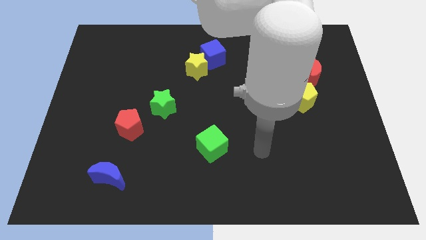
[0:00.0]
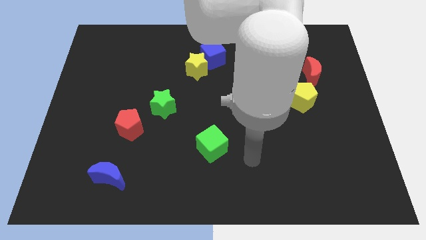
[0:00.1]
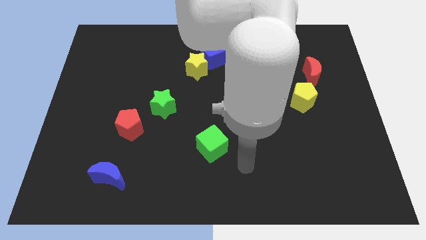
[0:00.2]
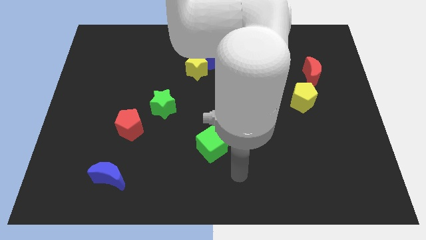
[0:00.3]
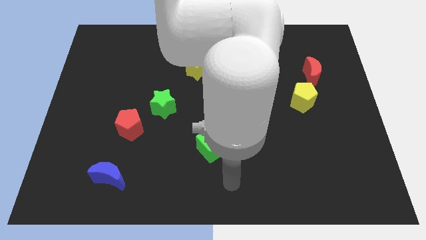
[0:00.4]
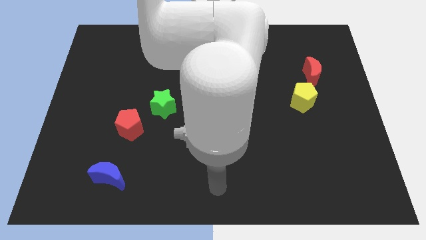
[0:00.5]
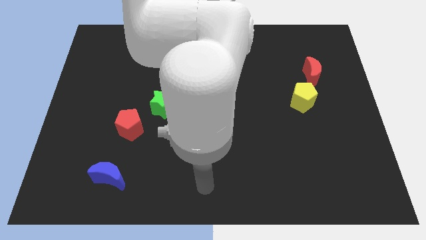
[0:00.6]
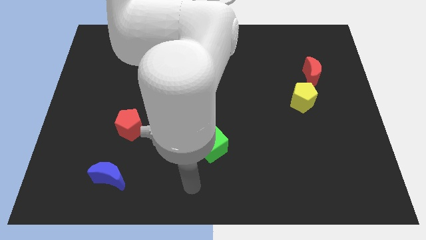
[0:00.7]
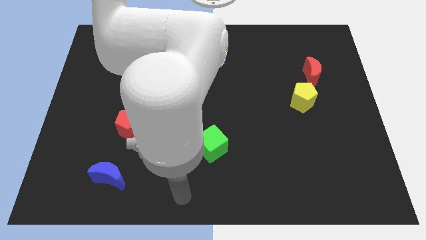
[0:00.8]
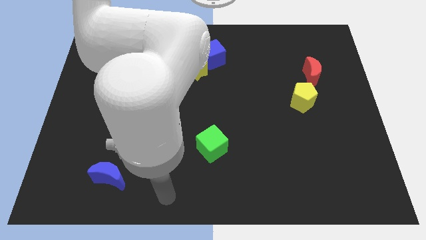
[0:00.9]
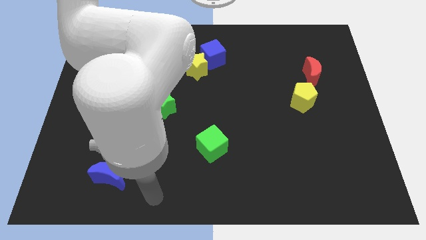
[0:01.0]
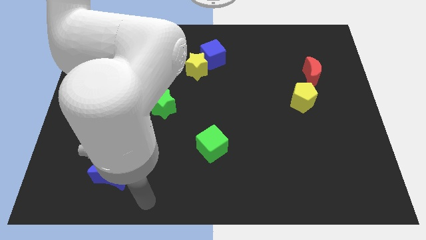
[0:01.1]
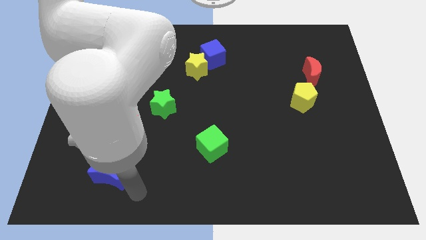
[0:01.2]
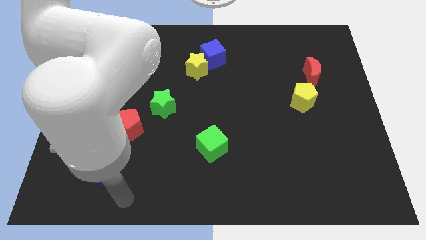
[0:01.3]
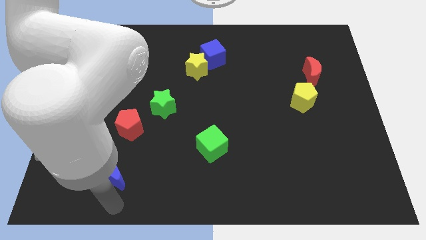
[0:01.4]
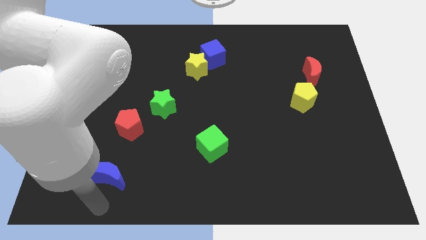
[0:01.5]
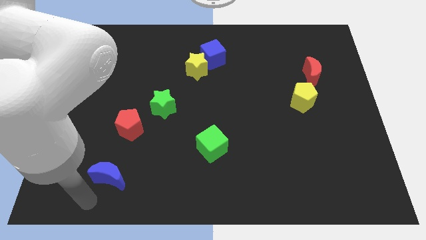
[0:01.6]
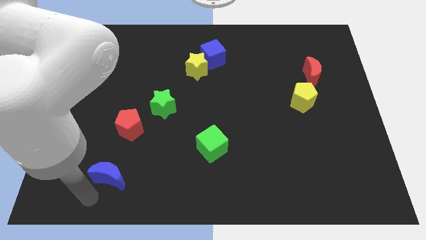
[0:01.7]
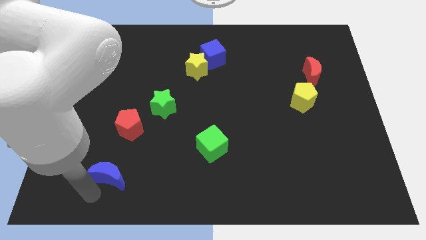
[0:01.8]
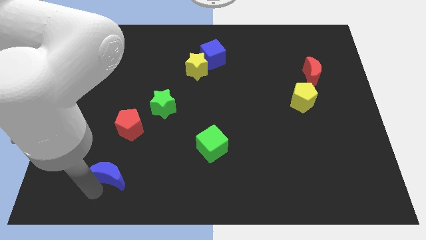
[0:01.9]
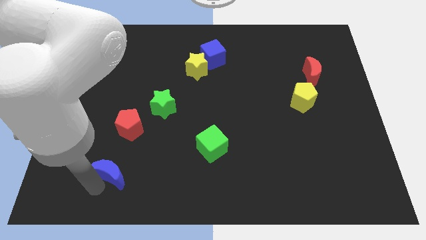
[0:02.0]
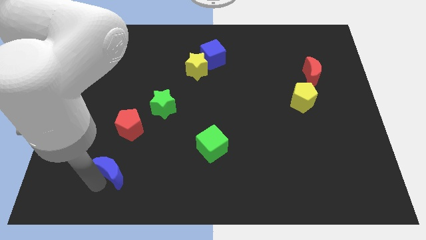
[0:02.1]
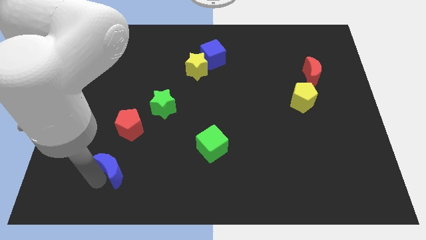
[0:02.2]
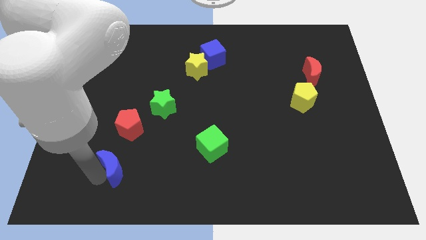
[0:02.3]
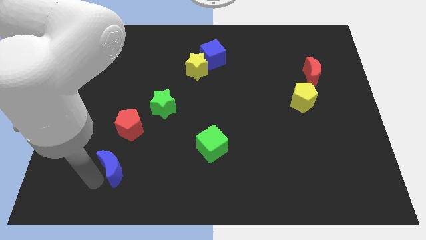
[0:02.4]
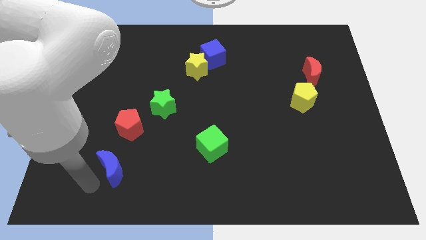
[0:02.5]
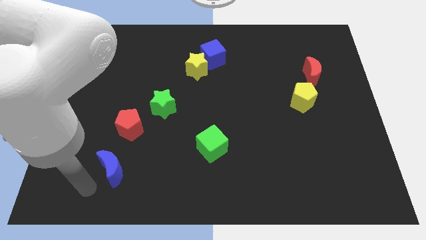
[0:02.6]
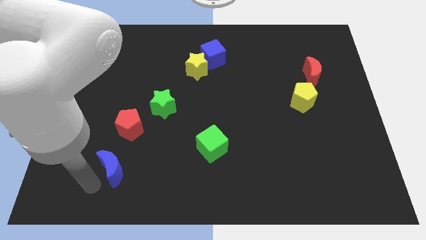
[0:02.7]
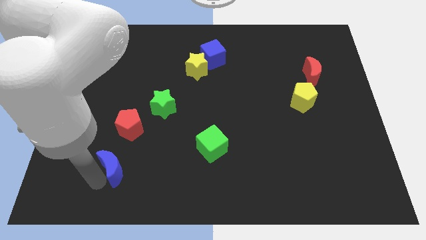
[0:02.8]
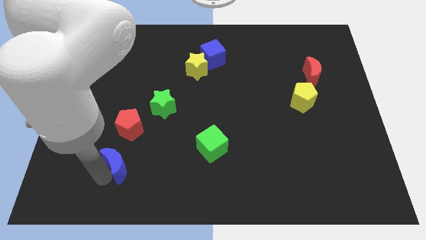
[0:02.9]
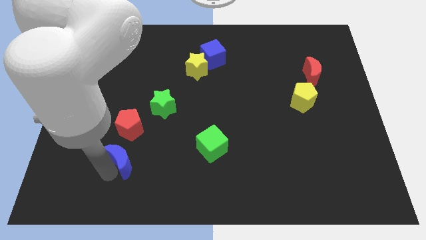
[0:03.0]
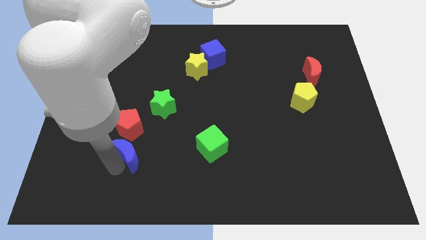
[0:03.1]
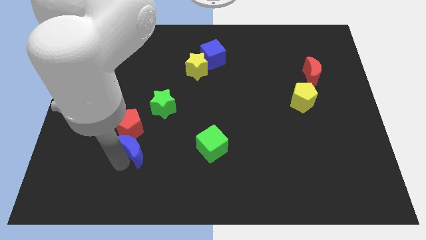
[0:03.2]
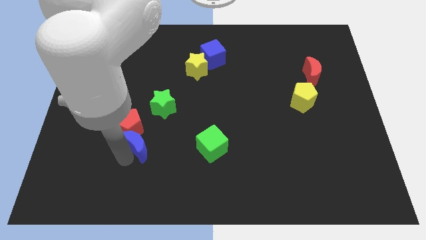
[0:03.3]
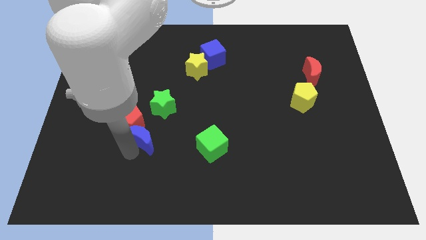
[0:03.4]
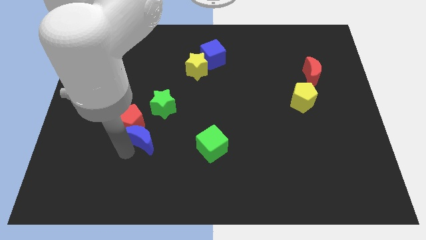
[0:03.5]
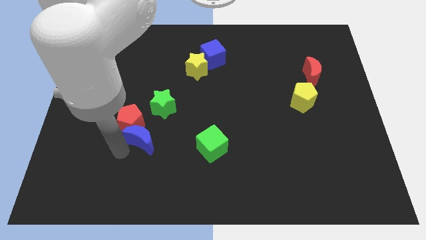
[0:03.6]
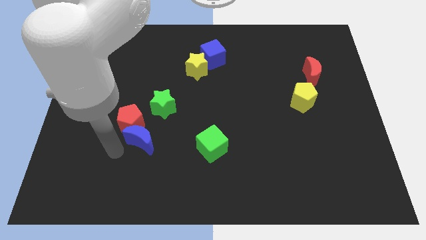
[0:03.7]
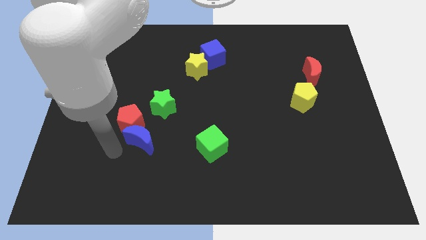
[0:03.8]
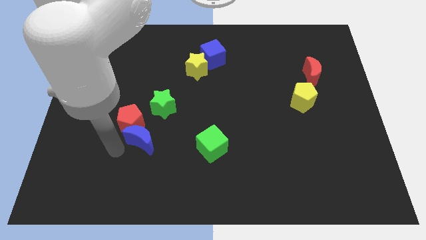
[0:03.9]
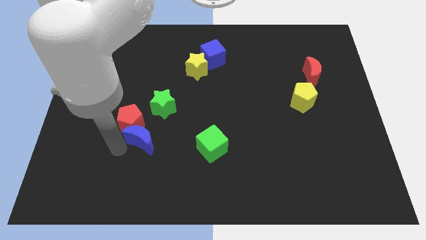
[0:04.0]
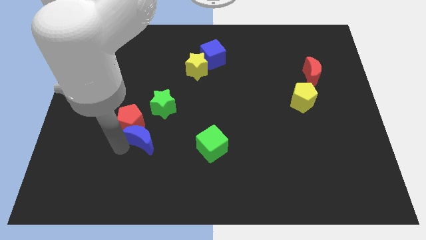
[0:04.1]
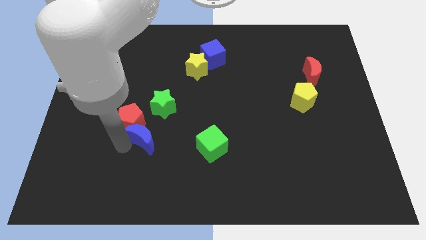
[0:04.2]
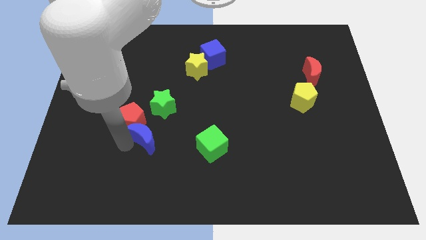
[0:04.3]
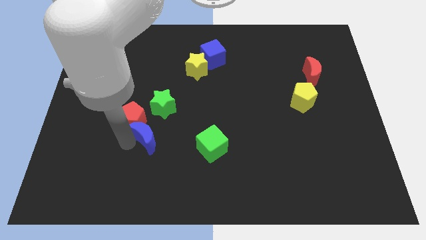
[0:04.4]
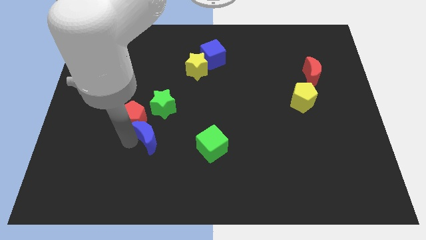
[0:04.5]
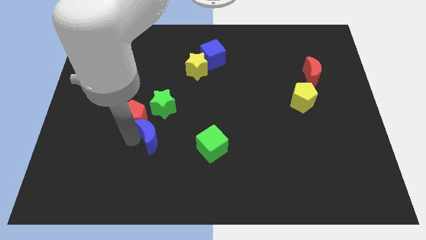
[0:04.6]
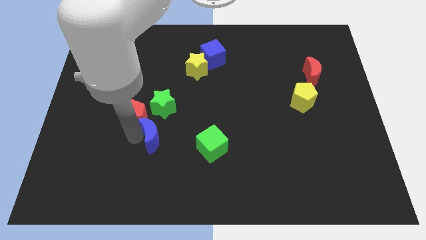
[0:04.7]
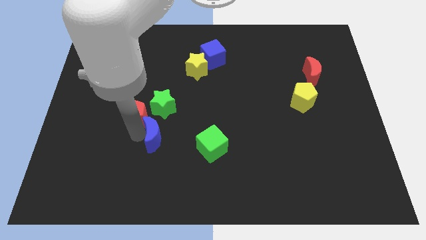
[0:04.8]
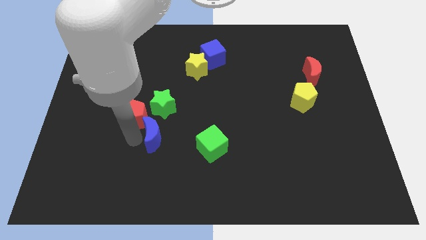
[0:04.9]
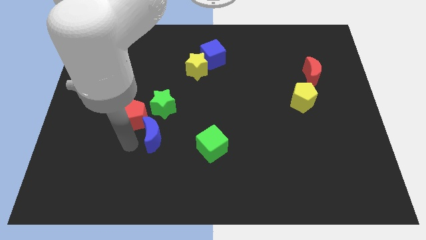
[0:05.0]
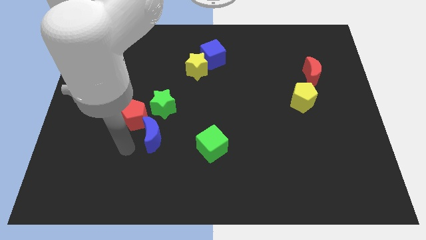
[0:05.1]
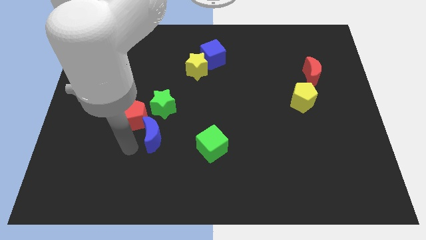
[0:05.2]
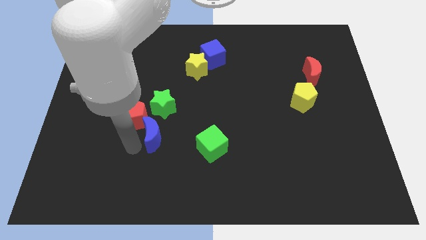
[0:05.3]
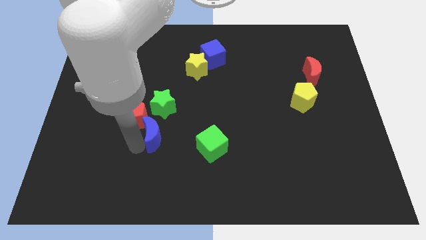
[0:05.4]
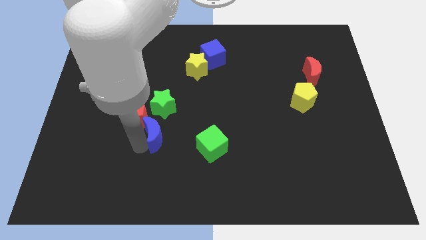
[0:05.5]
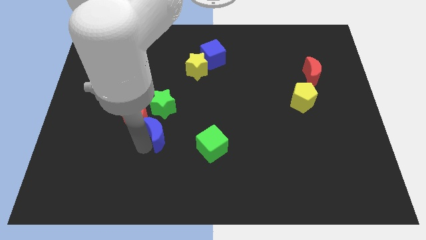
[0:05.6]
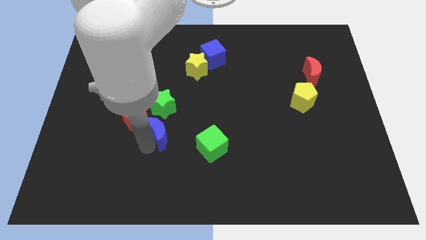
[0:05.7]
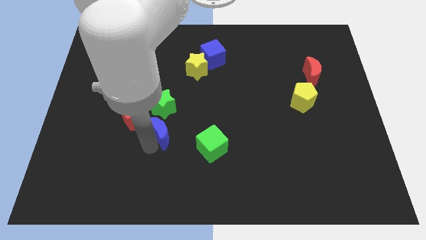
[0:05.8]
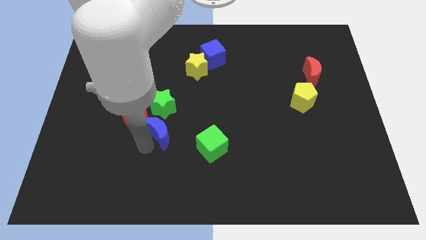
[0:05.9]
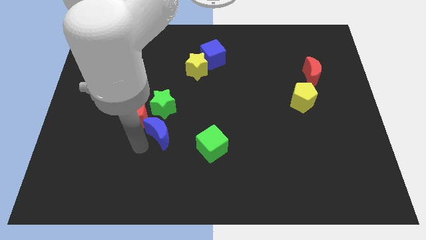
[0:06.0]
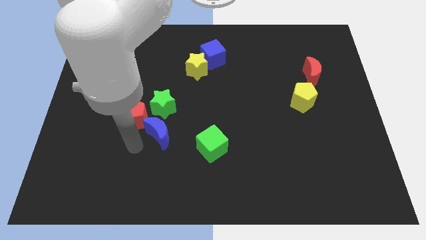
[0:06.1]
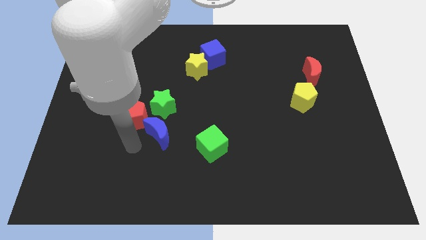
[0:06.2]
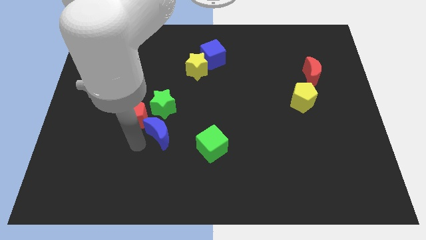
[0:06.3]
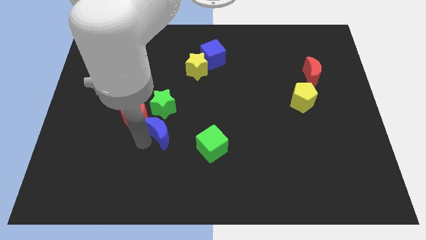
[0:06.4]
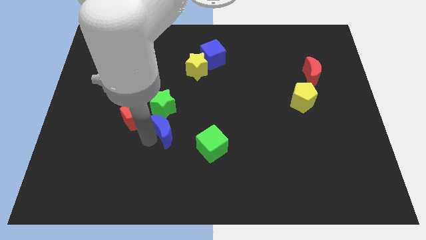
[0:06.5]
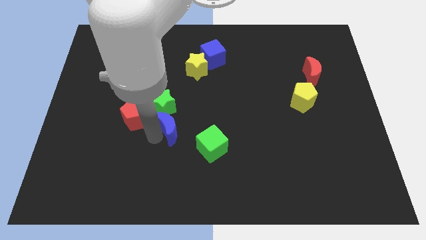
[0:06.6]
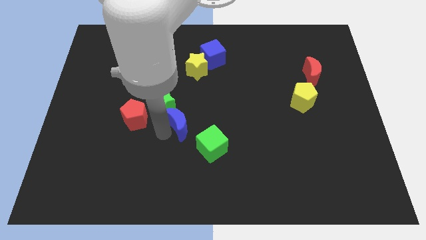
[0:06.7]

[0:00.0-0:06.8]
push the blue moon to the middle of the board

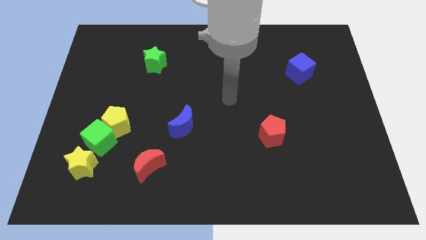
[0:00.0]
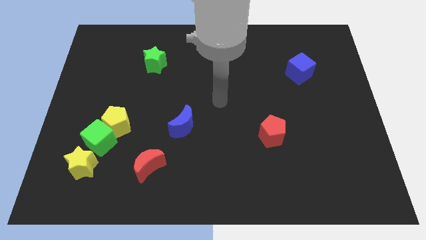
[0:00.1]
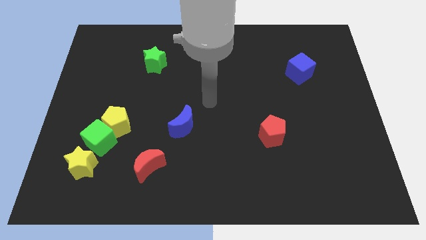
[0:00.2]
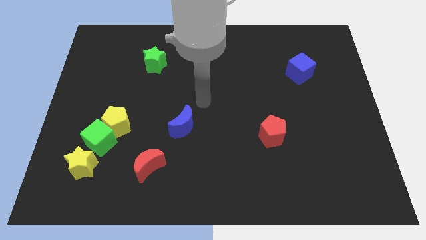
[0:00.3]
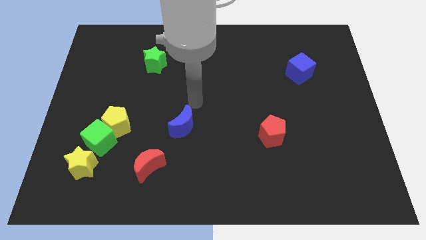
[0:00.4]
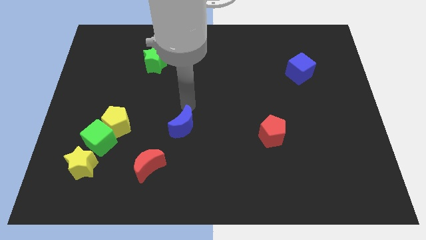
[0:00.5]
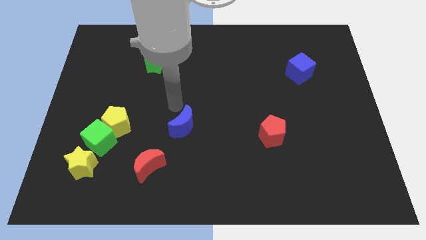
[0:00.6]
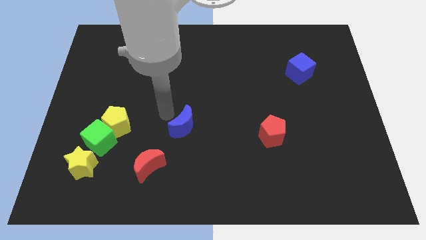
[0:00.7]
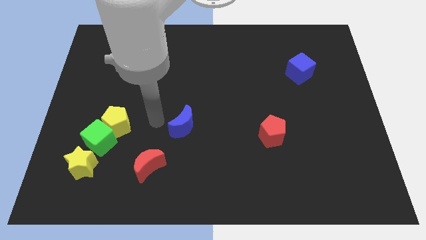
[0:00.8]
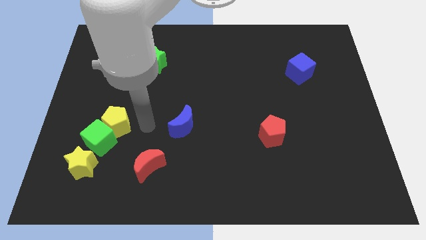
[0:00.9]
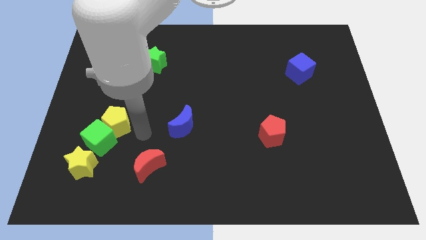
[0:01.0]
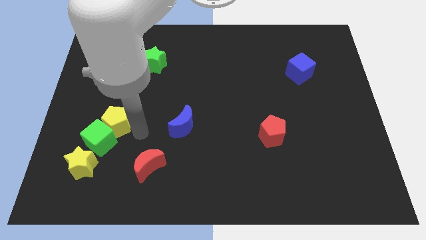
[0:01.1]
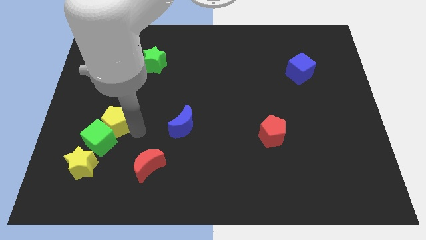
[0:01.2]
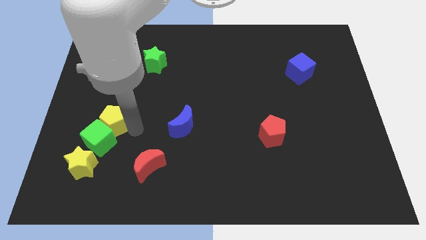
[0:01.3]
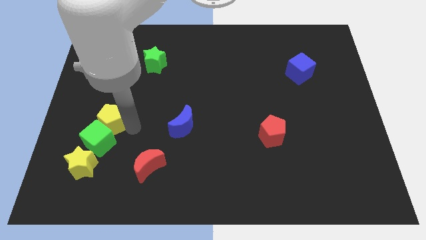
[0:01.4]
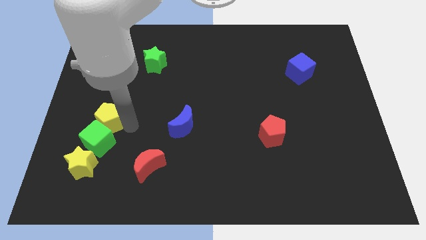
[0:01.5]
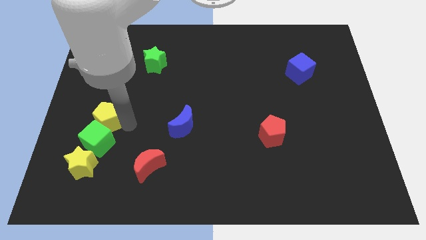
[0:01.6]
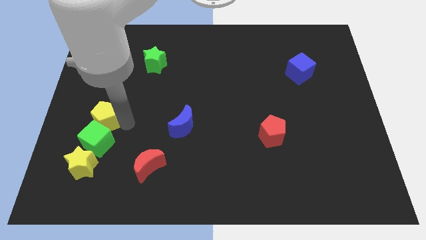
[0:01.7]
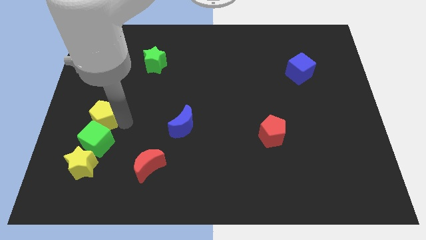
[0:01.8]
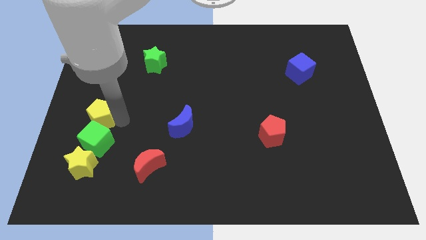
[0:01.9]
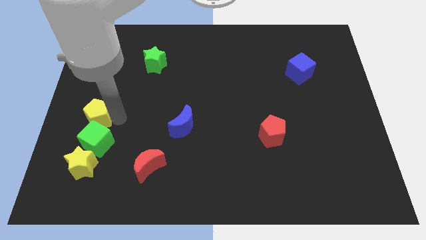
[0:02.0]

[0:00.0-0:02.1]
push the yellow pentagon to the center left
